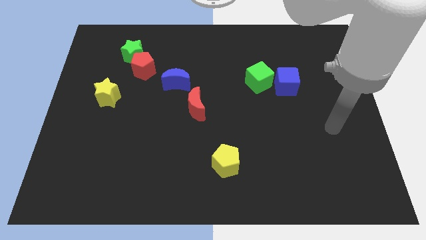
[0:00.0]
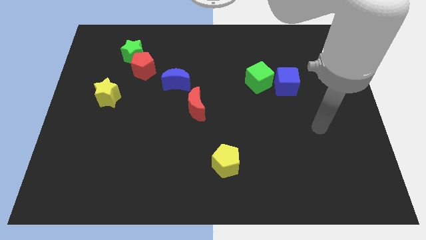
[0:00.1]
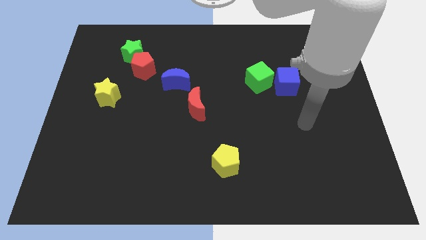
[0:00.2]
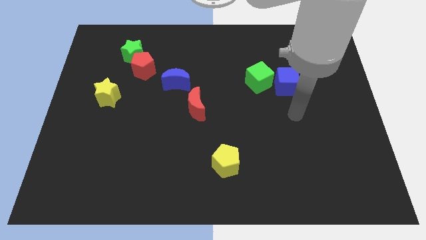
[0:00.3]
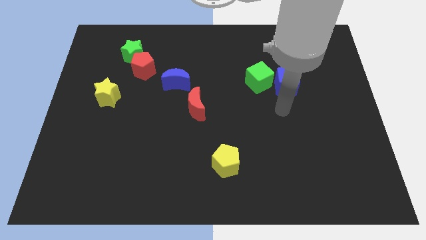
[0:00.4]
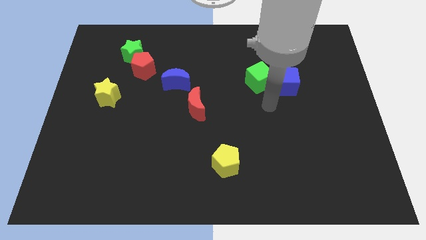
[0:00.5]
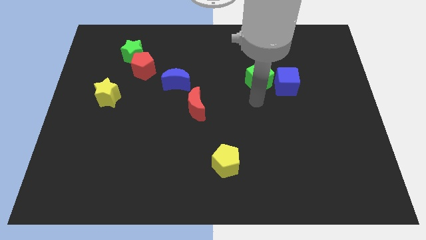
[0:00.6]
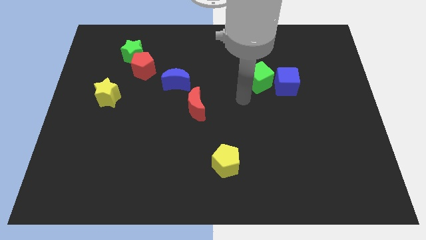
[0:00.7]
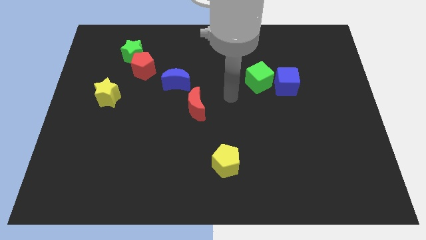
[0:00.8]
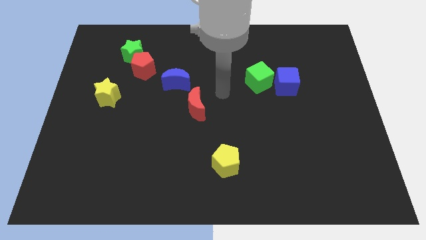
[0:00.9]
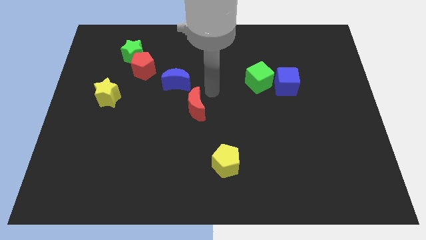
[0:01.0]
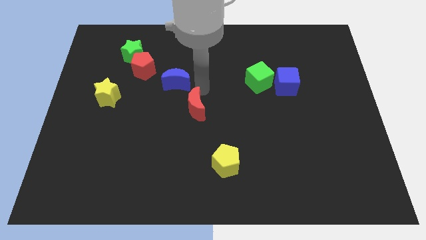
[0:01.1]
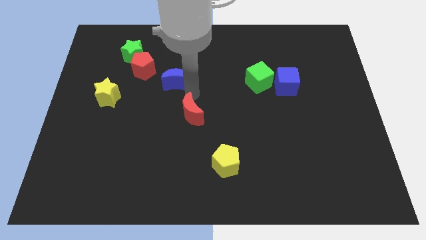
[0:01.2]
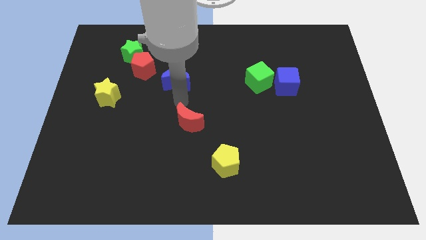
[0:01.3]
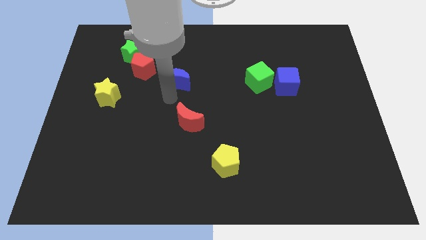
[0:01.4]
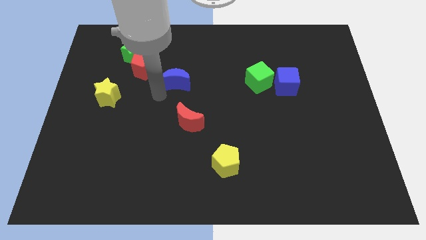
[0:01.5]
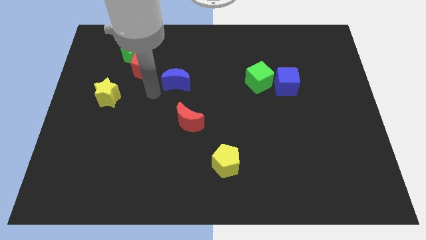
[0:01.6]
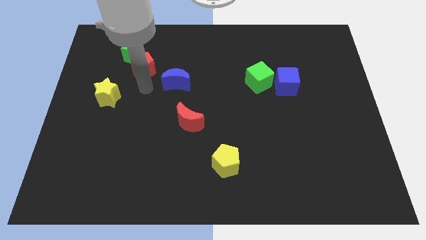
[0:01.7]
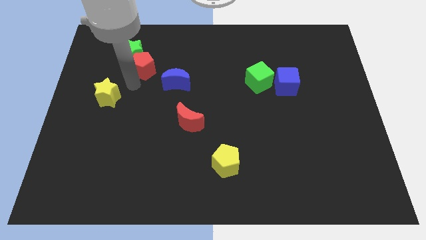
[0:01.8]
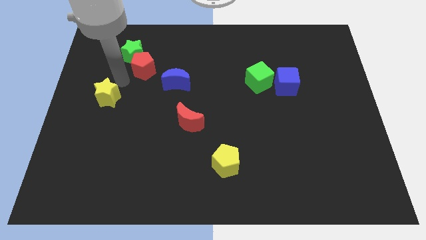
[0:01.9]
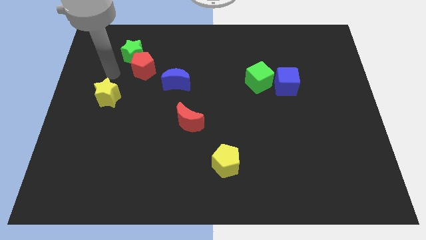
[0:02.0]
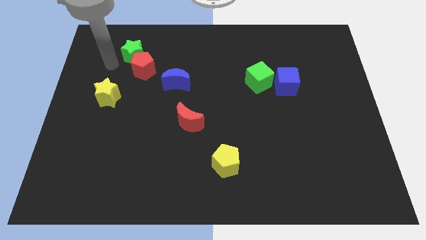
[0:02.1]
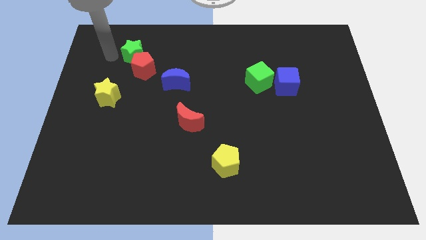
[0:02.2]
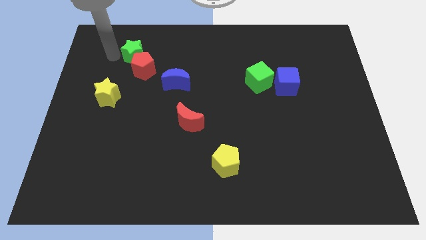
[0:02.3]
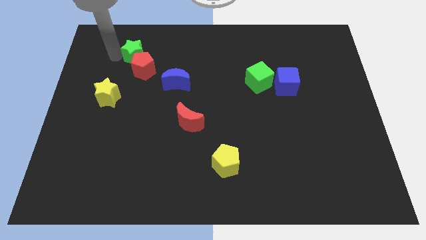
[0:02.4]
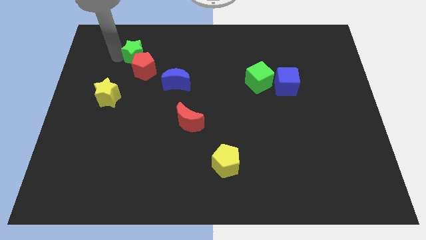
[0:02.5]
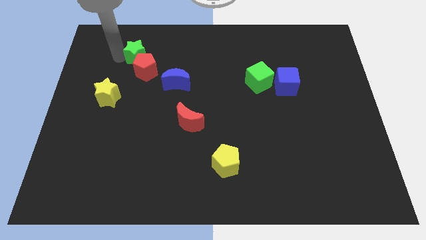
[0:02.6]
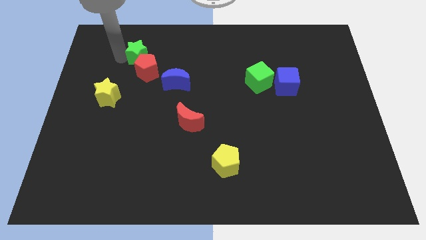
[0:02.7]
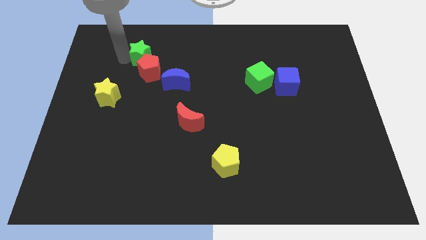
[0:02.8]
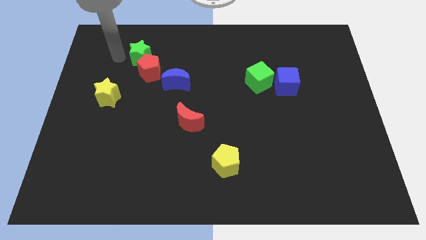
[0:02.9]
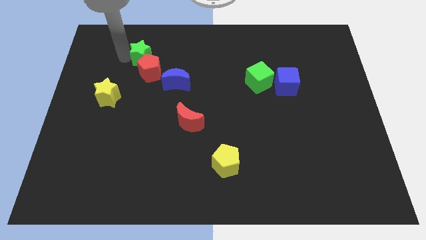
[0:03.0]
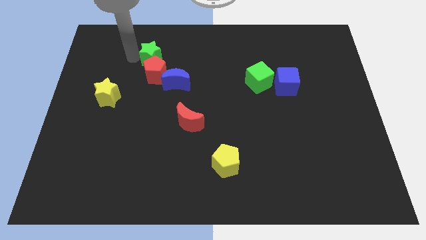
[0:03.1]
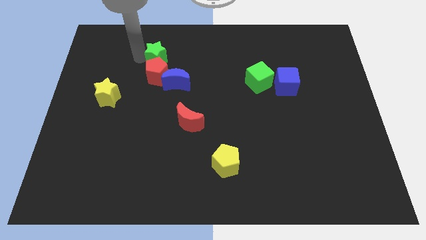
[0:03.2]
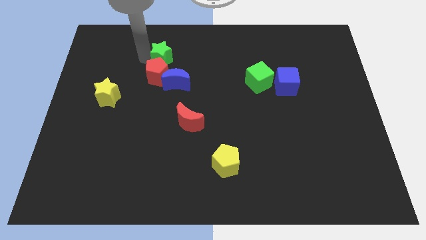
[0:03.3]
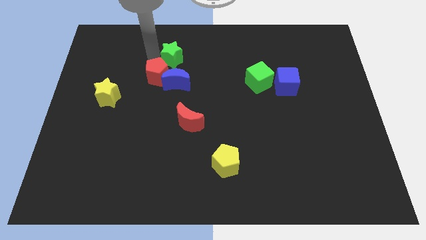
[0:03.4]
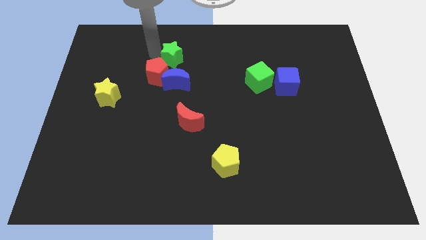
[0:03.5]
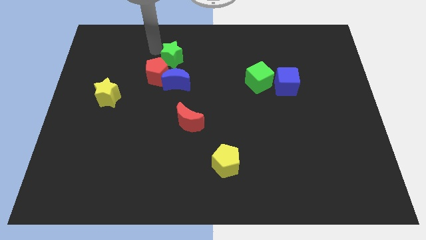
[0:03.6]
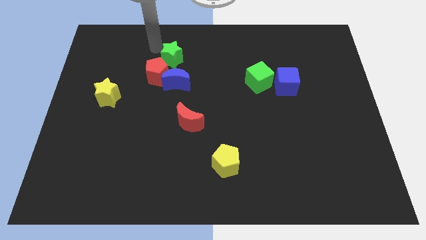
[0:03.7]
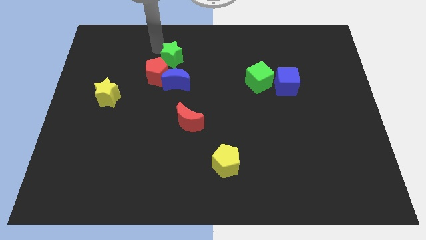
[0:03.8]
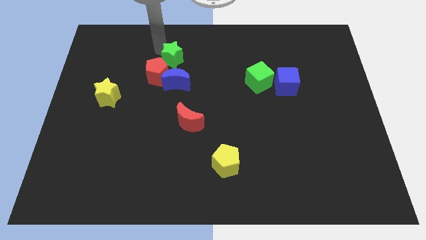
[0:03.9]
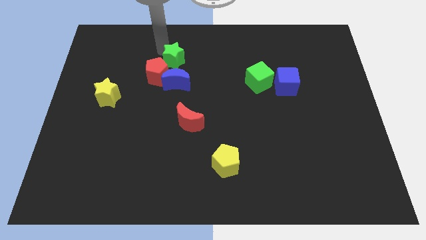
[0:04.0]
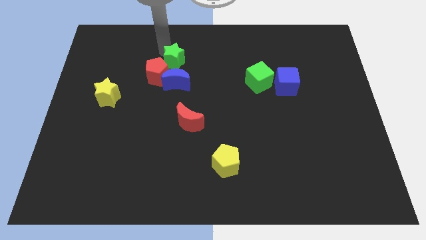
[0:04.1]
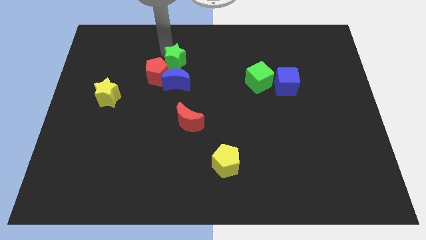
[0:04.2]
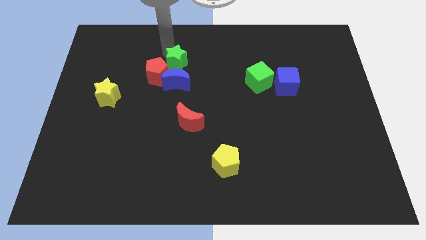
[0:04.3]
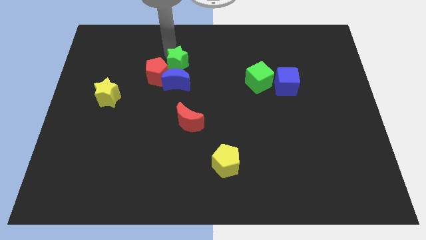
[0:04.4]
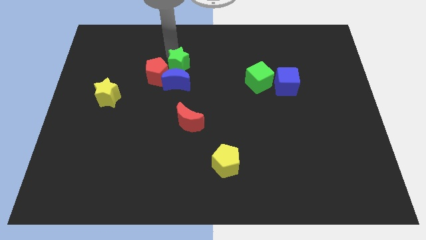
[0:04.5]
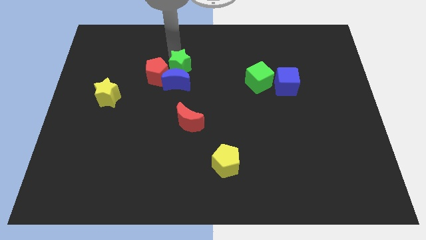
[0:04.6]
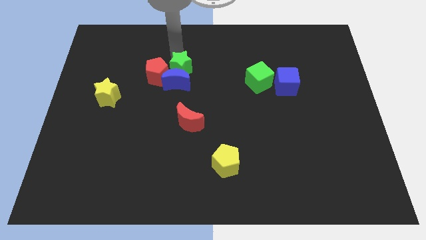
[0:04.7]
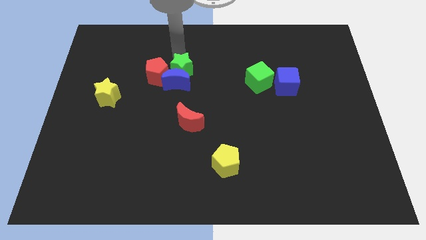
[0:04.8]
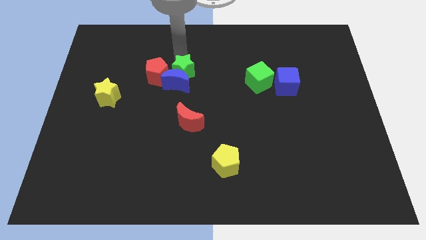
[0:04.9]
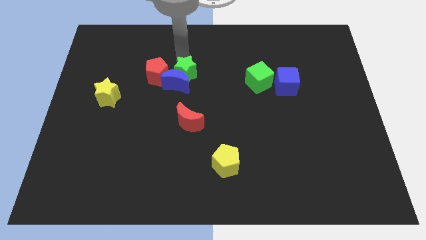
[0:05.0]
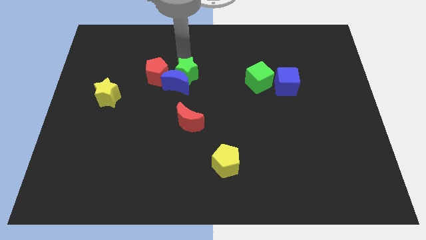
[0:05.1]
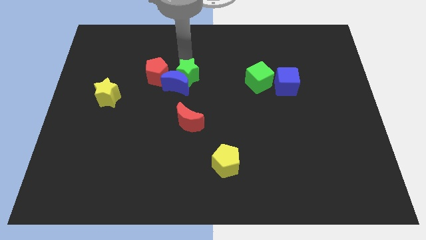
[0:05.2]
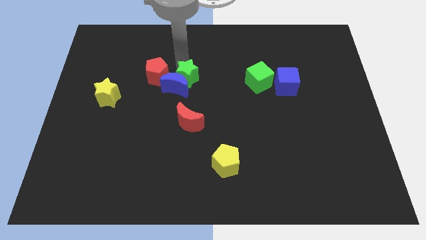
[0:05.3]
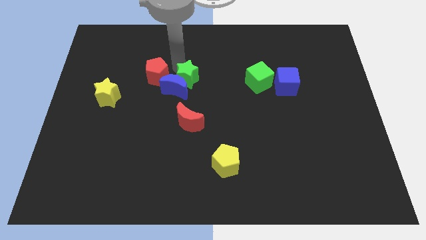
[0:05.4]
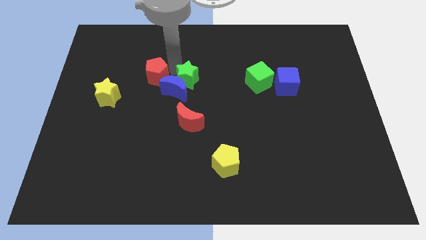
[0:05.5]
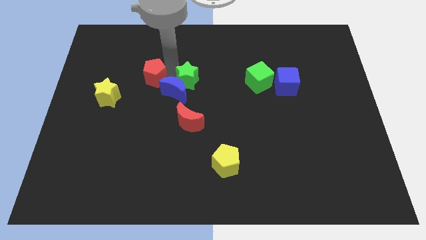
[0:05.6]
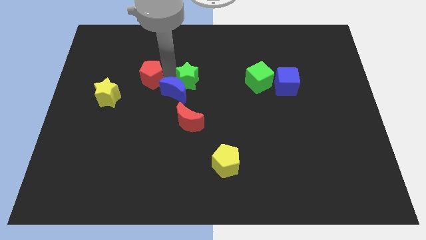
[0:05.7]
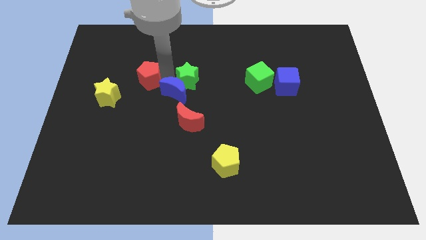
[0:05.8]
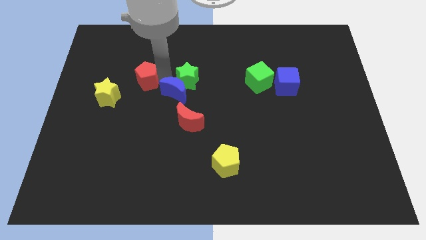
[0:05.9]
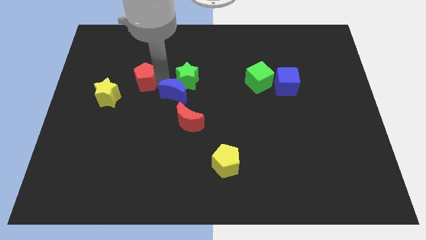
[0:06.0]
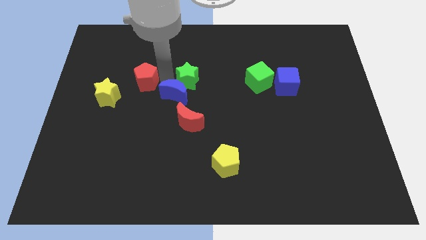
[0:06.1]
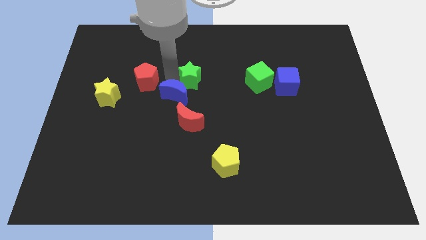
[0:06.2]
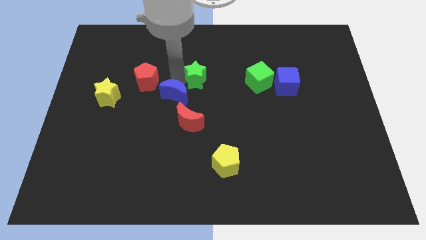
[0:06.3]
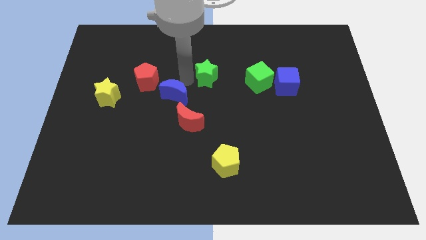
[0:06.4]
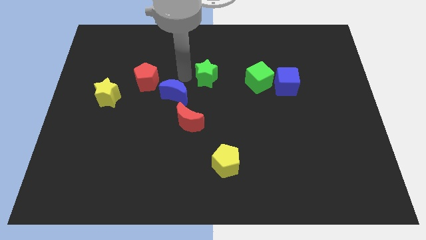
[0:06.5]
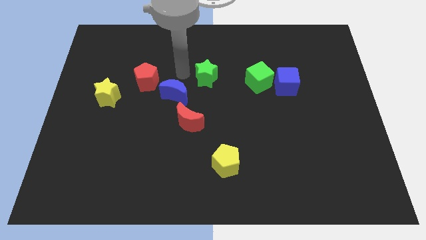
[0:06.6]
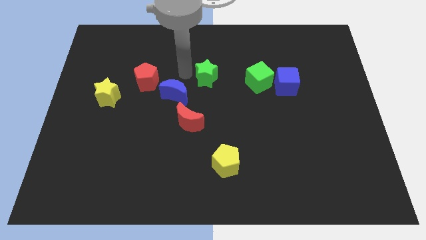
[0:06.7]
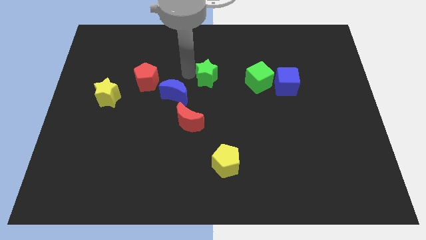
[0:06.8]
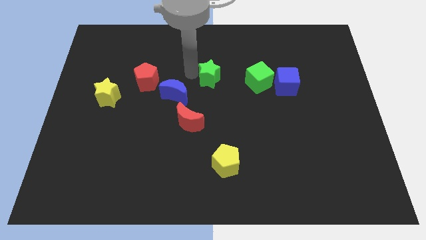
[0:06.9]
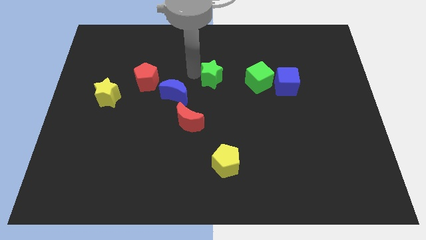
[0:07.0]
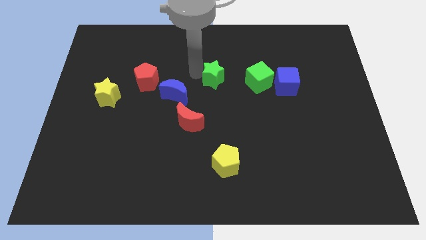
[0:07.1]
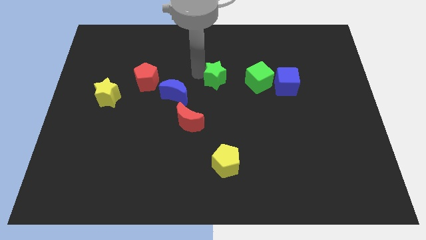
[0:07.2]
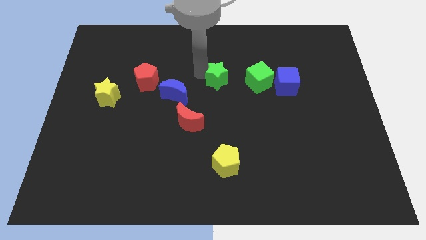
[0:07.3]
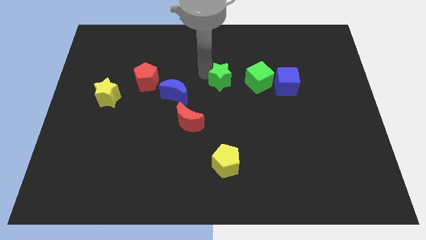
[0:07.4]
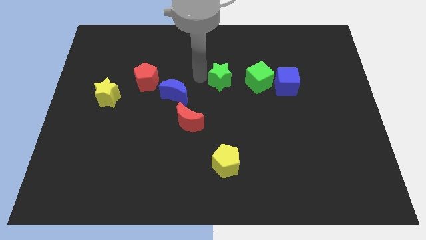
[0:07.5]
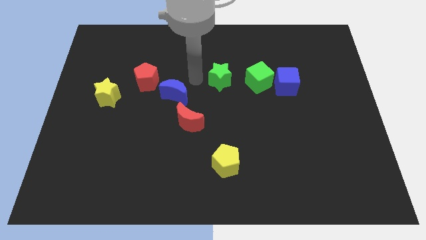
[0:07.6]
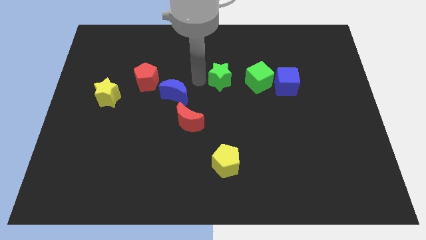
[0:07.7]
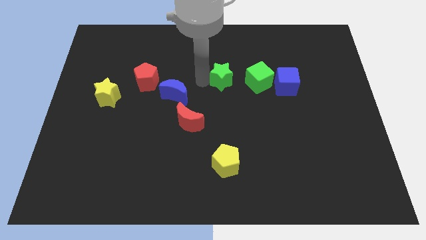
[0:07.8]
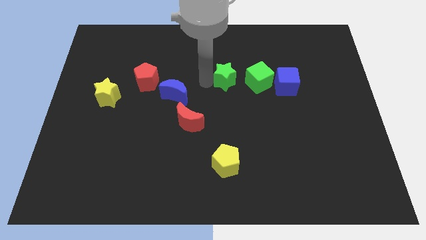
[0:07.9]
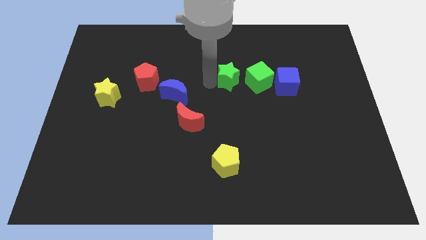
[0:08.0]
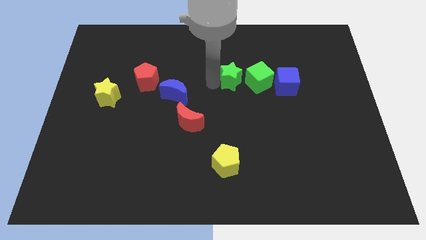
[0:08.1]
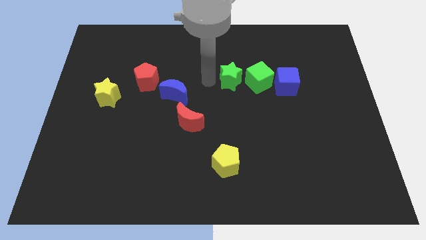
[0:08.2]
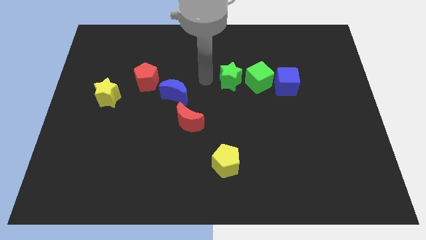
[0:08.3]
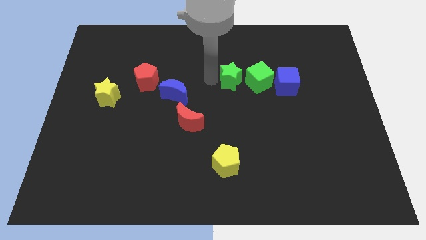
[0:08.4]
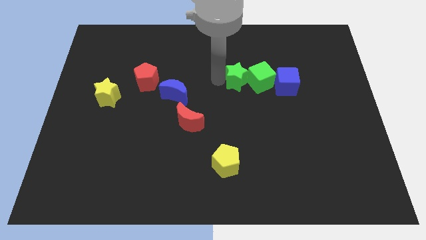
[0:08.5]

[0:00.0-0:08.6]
push the green star to the green cube
